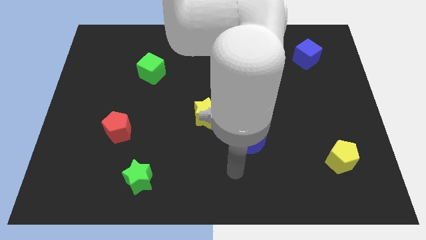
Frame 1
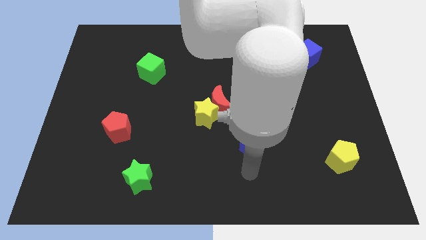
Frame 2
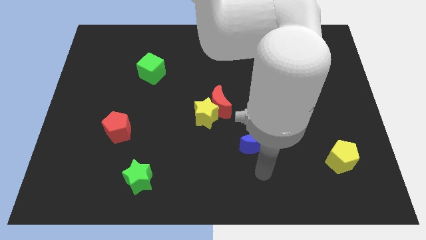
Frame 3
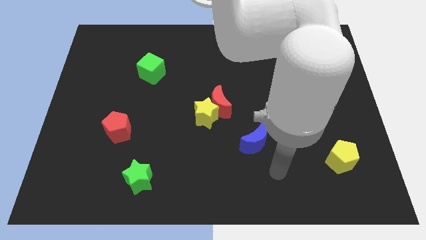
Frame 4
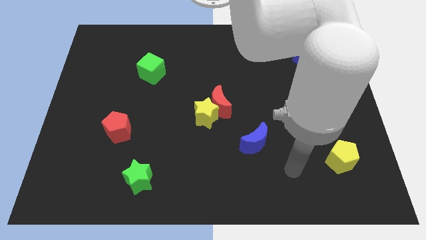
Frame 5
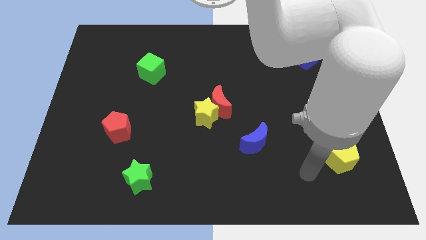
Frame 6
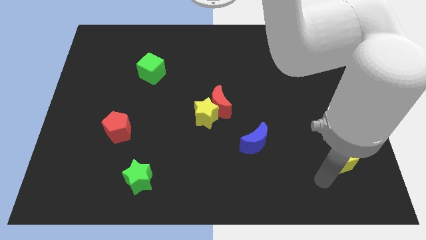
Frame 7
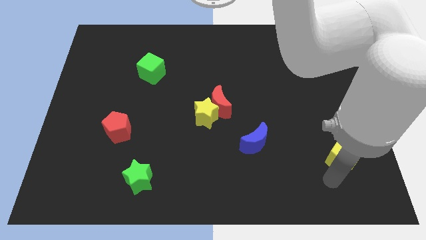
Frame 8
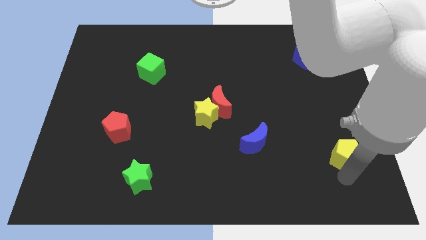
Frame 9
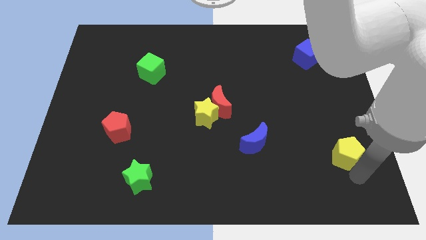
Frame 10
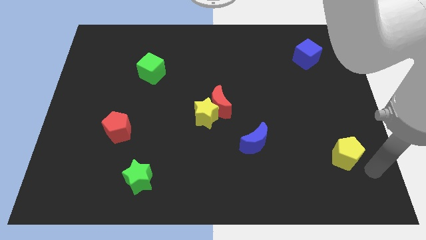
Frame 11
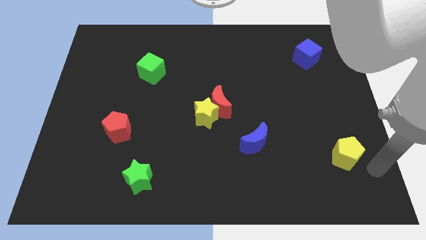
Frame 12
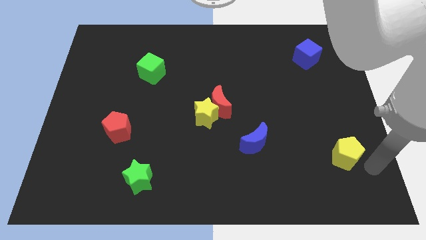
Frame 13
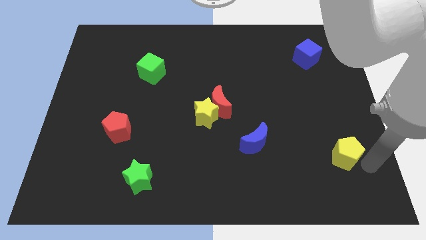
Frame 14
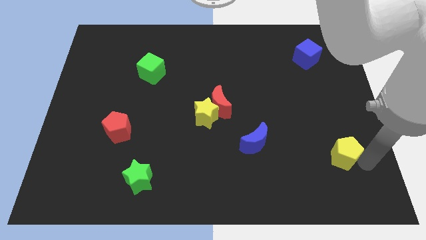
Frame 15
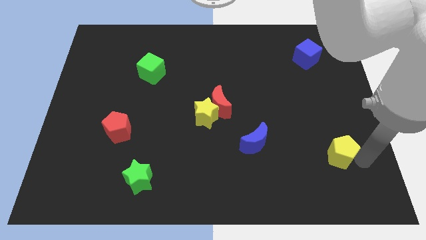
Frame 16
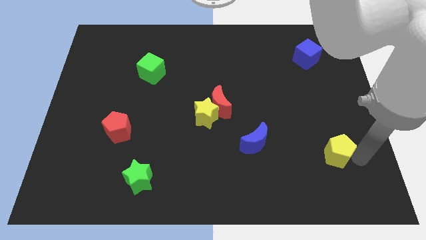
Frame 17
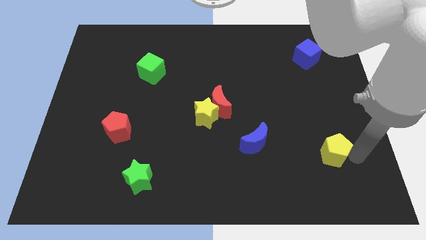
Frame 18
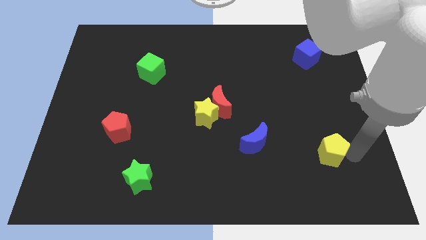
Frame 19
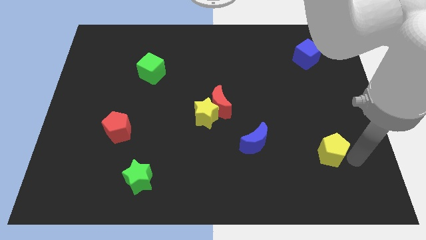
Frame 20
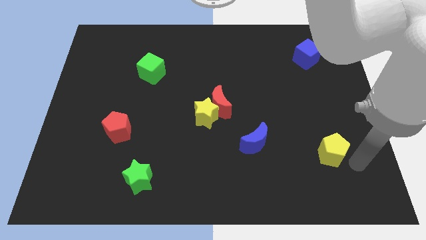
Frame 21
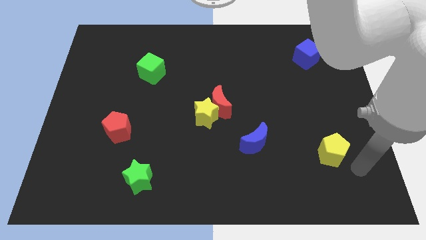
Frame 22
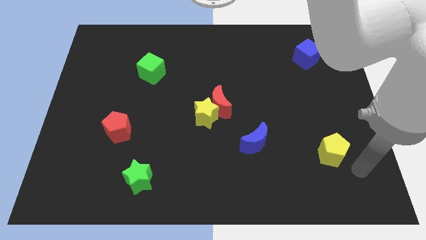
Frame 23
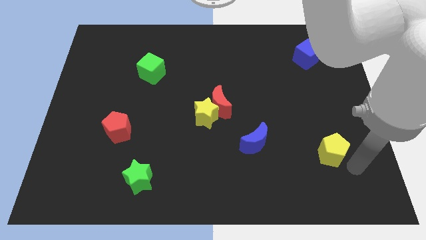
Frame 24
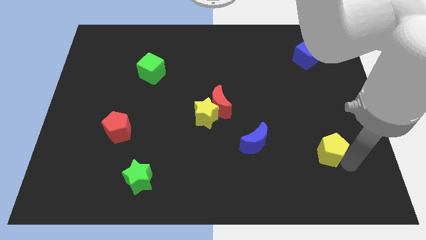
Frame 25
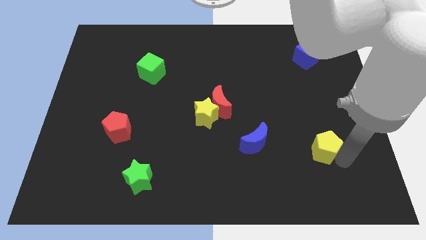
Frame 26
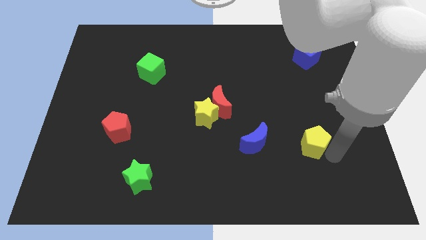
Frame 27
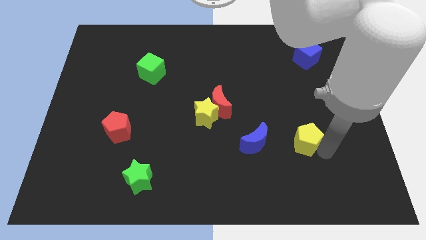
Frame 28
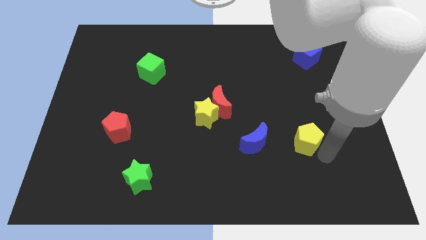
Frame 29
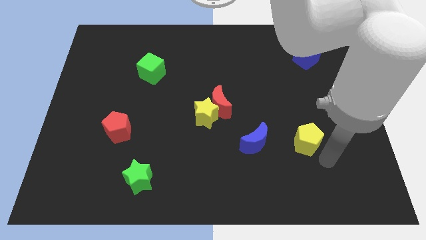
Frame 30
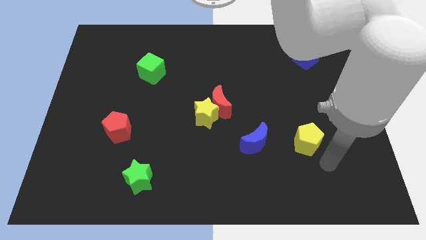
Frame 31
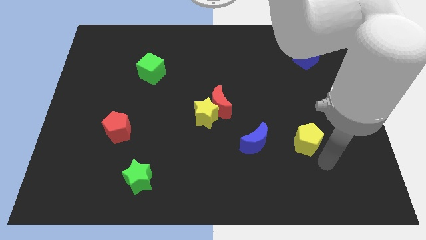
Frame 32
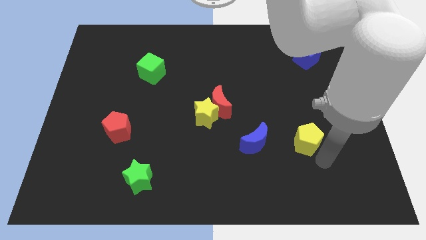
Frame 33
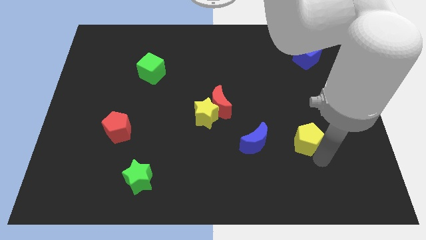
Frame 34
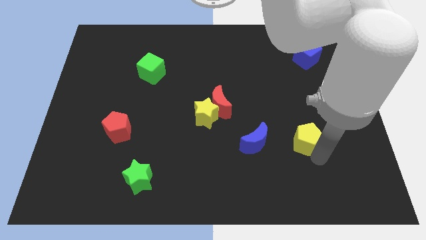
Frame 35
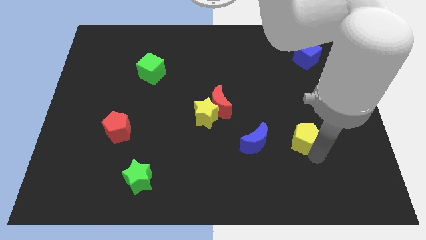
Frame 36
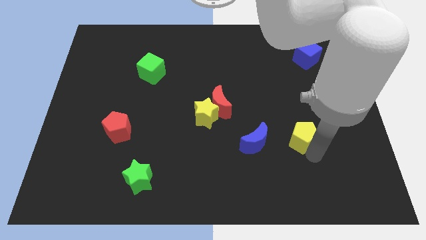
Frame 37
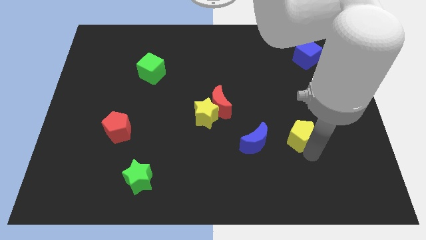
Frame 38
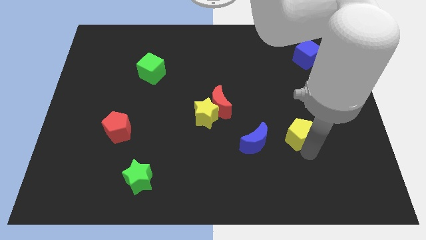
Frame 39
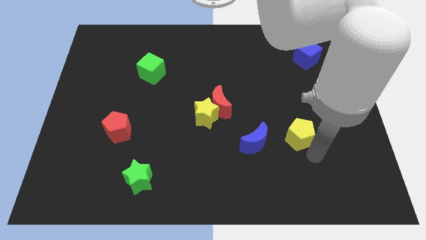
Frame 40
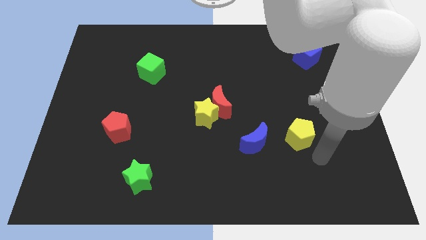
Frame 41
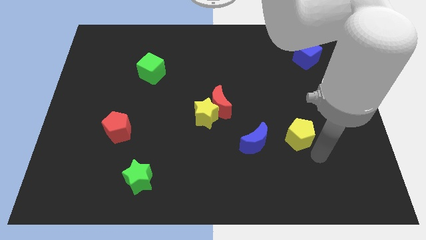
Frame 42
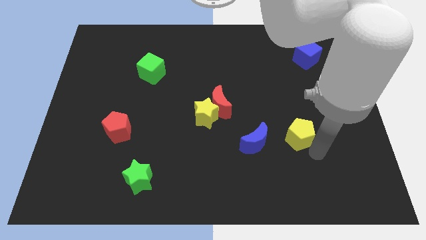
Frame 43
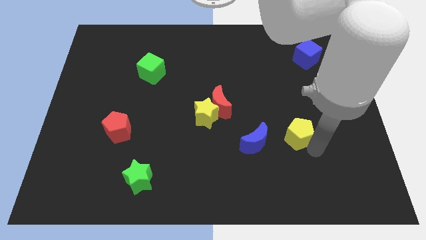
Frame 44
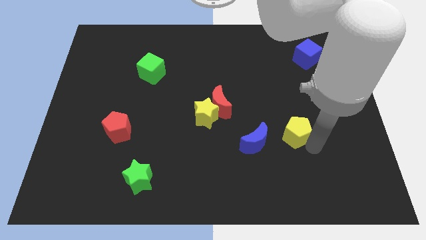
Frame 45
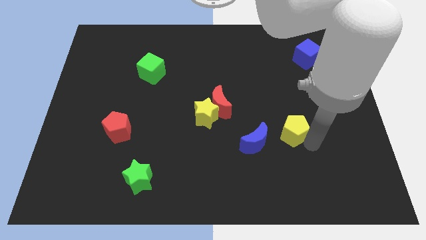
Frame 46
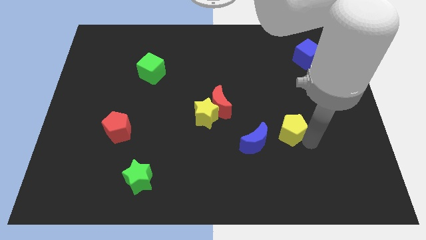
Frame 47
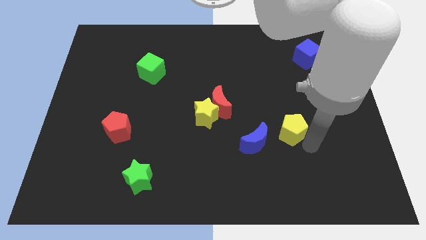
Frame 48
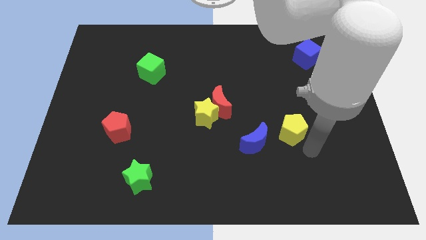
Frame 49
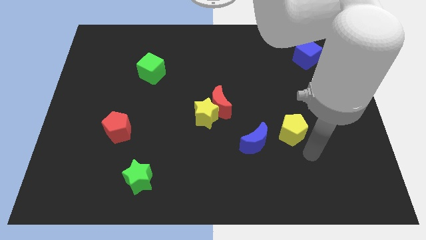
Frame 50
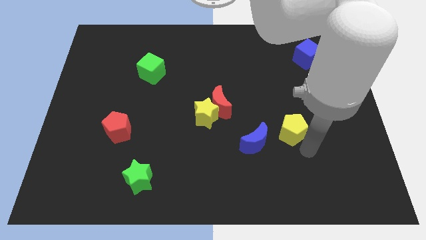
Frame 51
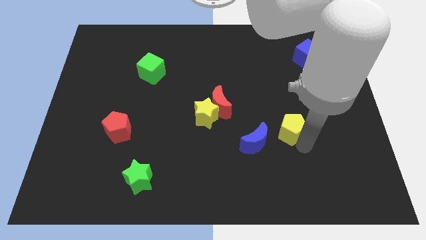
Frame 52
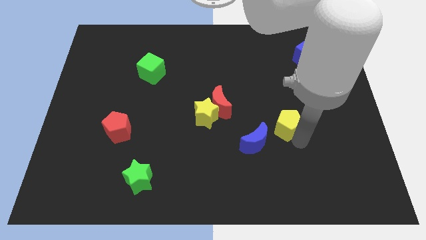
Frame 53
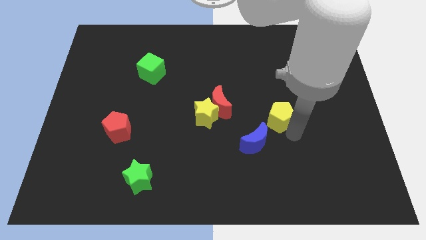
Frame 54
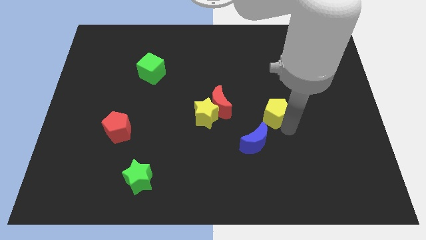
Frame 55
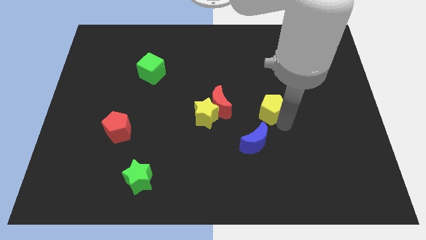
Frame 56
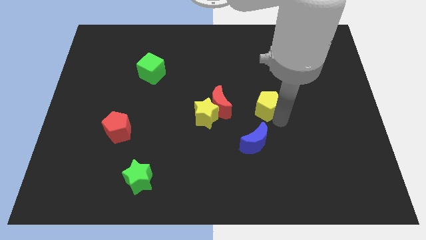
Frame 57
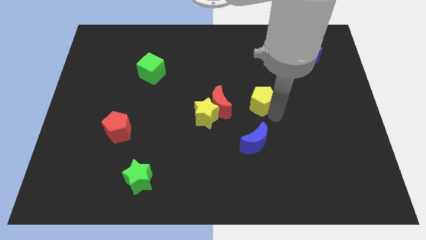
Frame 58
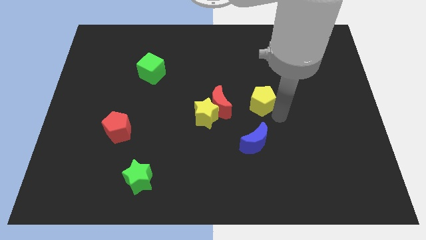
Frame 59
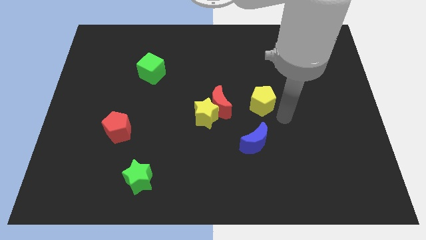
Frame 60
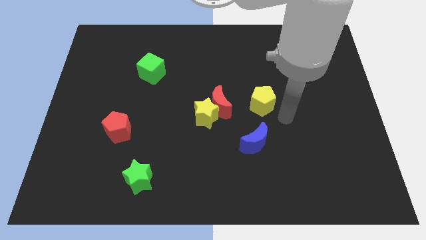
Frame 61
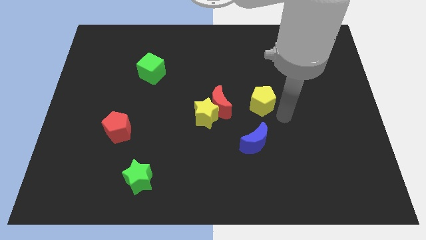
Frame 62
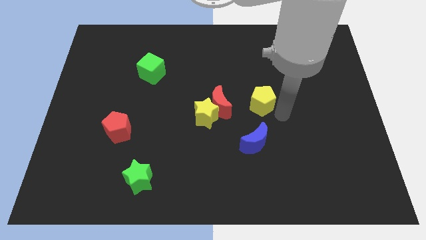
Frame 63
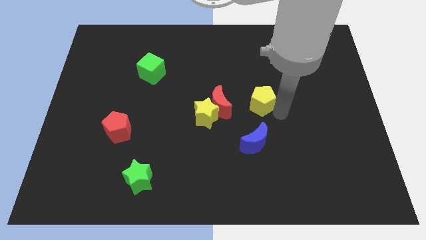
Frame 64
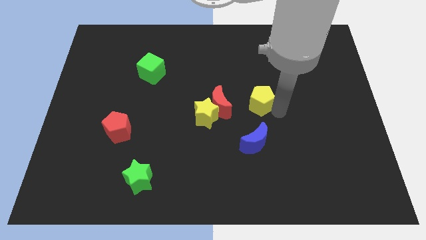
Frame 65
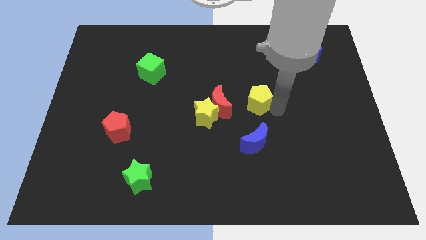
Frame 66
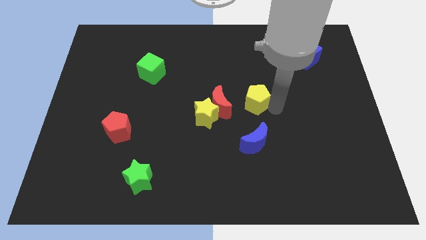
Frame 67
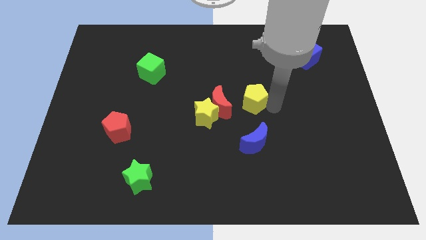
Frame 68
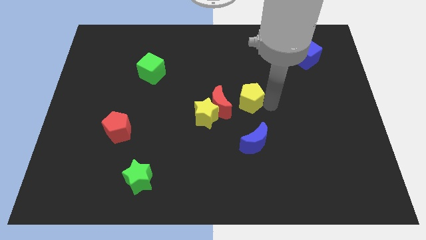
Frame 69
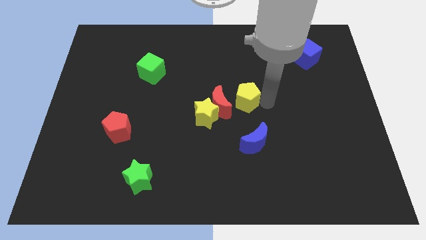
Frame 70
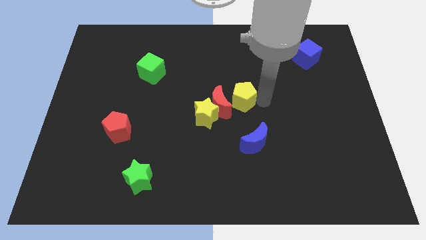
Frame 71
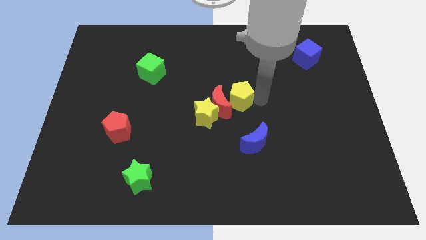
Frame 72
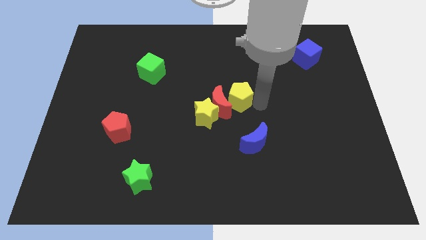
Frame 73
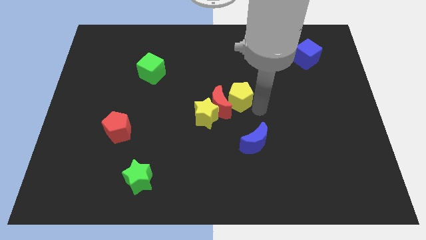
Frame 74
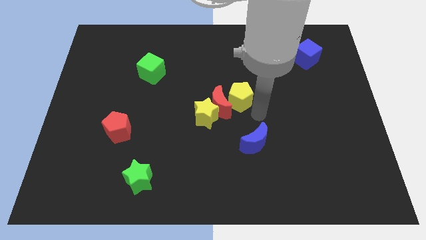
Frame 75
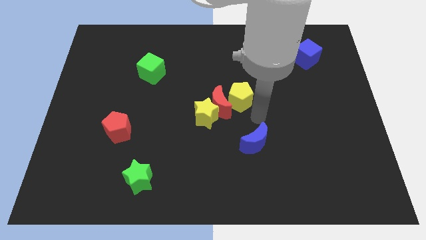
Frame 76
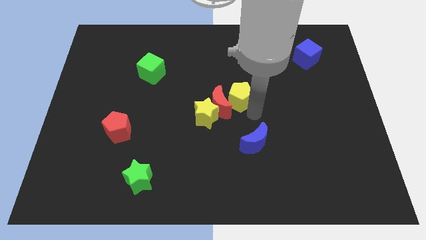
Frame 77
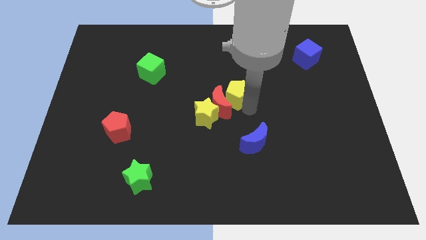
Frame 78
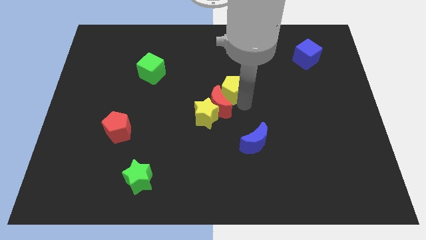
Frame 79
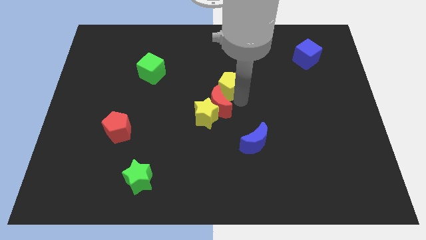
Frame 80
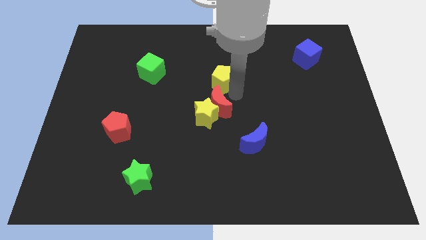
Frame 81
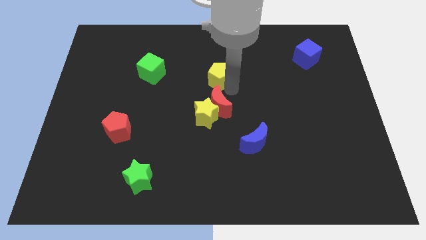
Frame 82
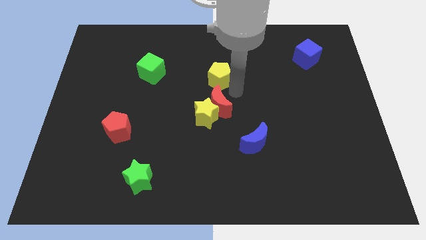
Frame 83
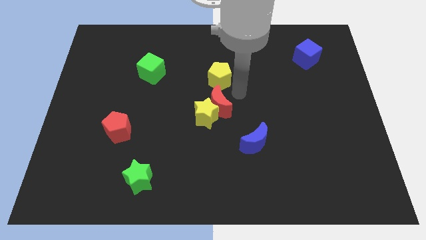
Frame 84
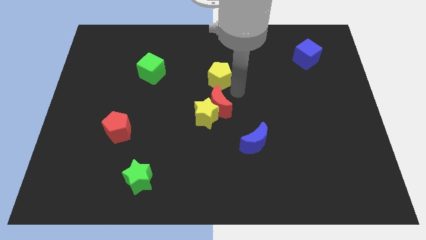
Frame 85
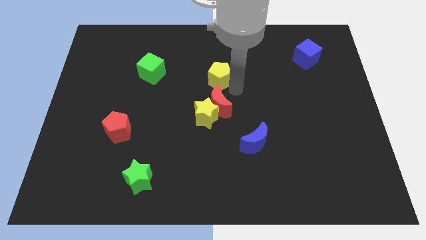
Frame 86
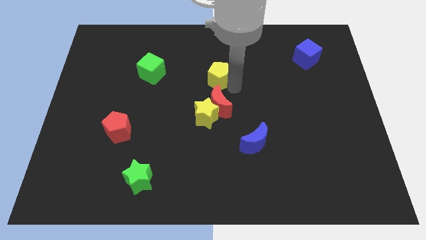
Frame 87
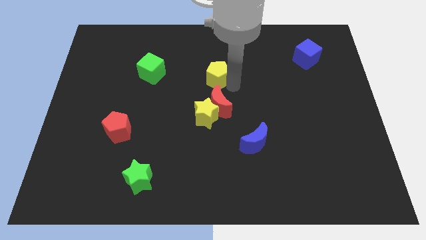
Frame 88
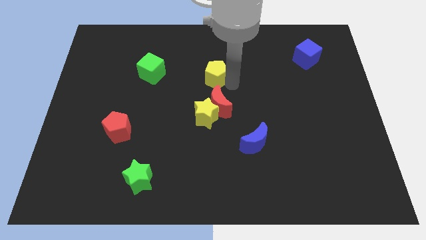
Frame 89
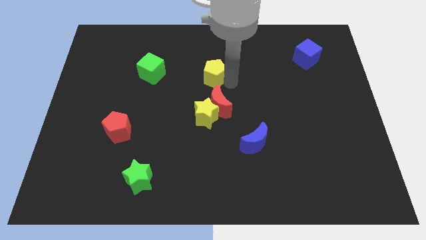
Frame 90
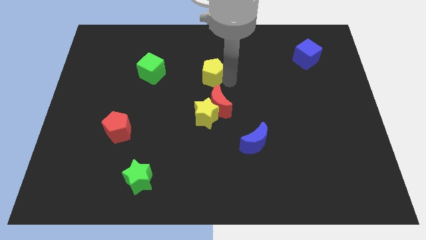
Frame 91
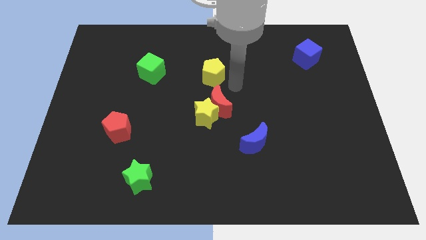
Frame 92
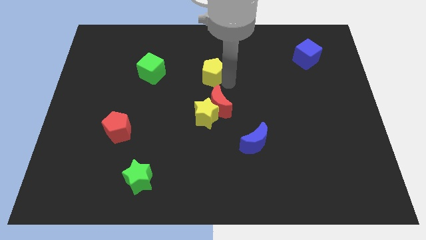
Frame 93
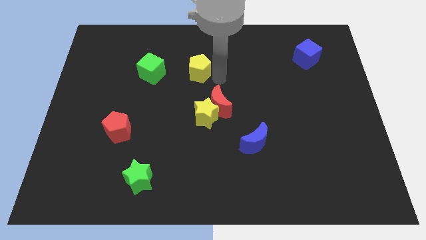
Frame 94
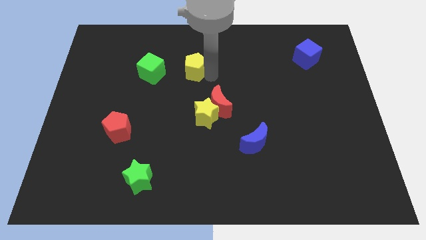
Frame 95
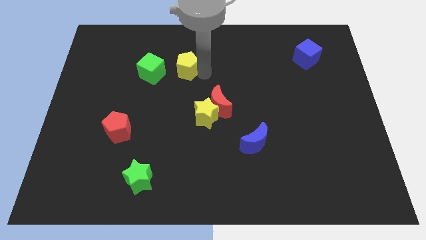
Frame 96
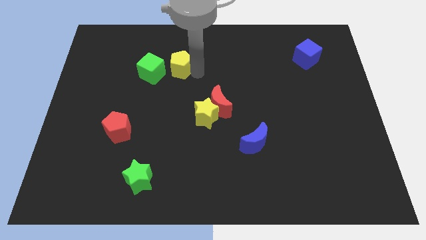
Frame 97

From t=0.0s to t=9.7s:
put the yellow pentagon to the top right side of the green cube
